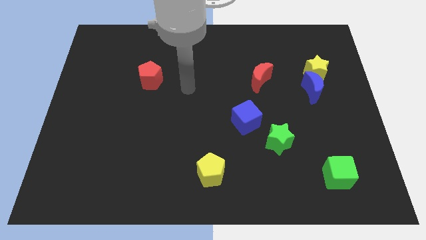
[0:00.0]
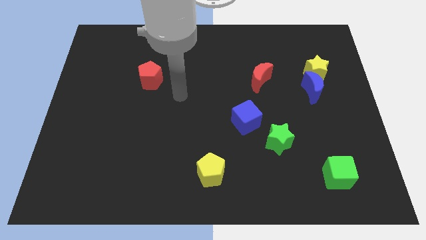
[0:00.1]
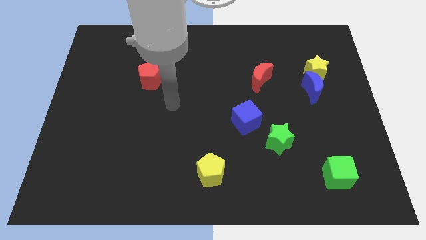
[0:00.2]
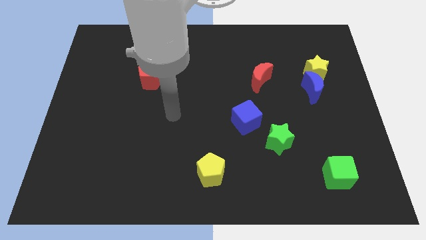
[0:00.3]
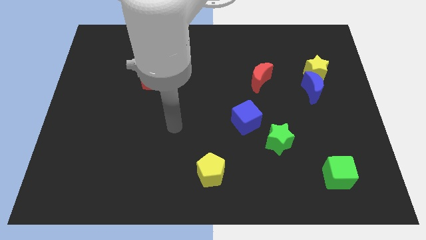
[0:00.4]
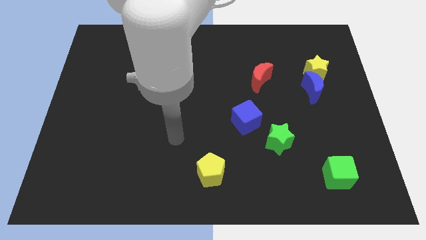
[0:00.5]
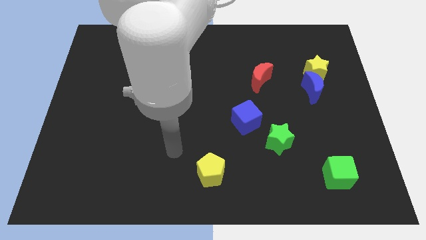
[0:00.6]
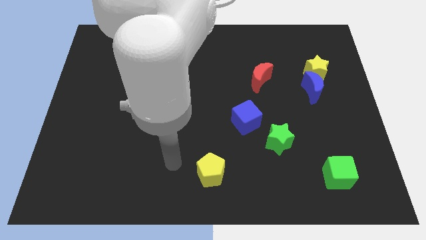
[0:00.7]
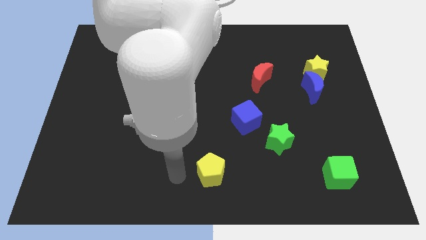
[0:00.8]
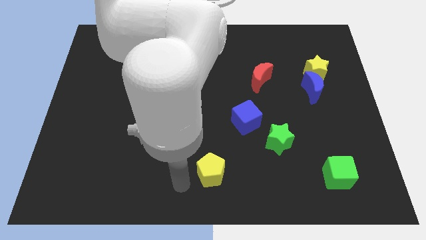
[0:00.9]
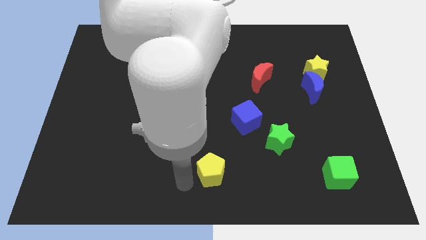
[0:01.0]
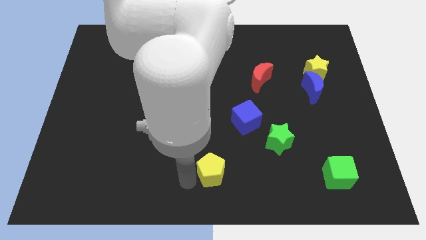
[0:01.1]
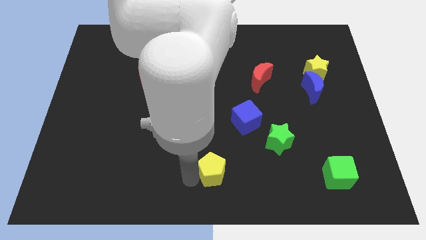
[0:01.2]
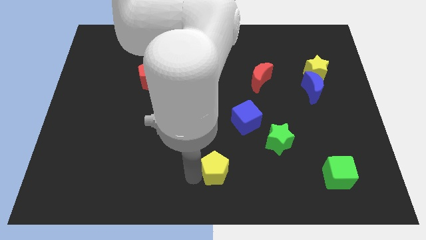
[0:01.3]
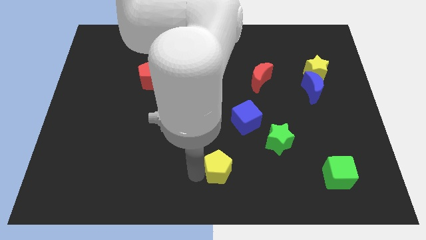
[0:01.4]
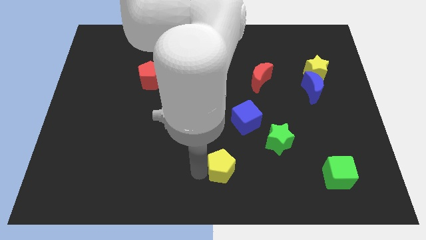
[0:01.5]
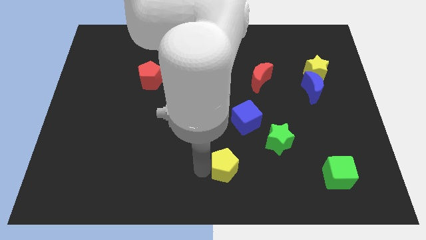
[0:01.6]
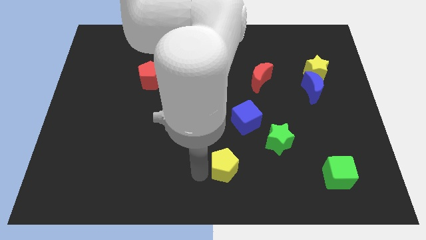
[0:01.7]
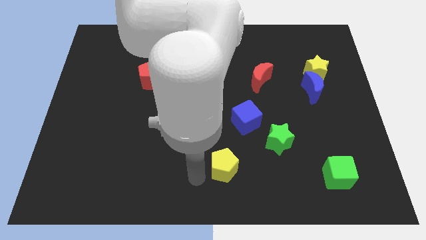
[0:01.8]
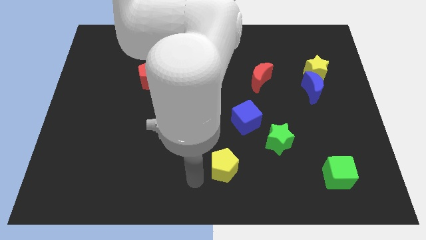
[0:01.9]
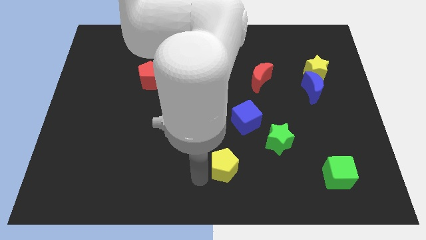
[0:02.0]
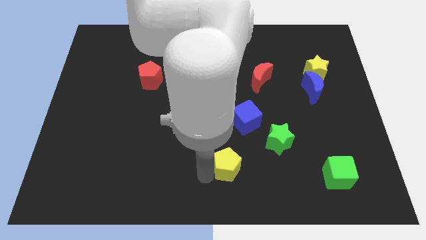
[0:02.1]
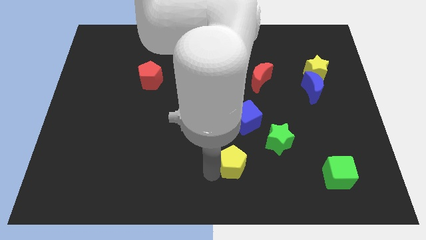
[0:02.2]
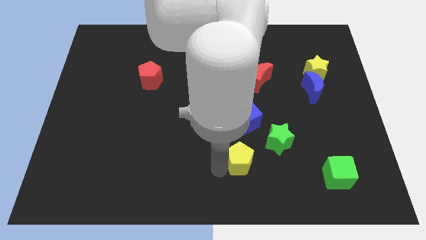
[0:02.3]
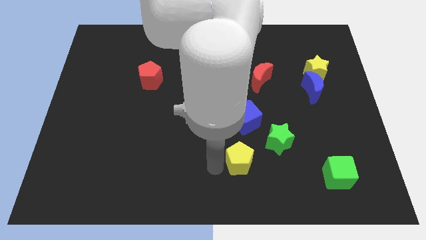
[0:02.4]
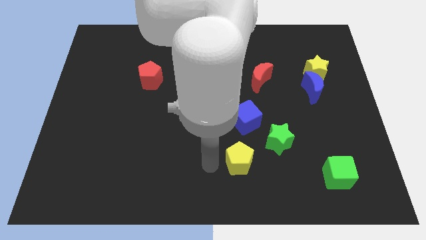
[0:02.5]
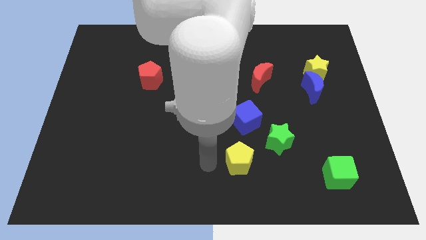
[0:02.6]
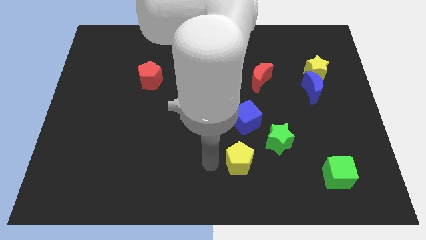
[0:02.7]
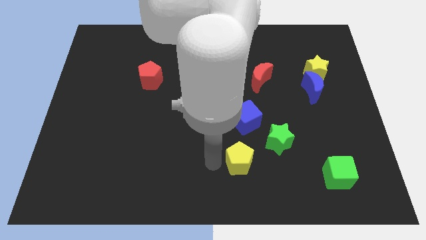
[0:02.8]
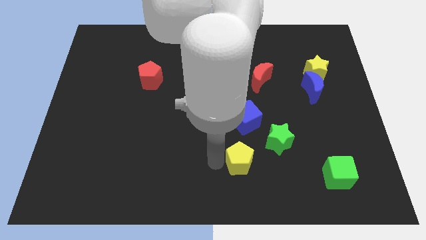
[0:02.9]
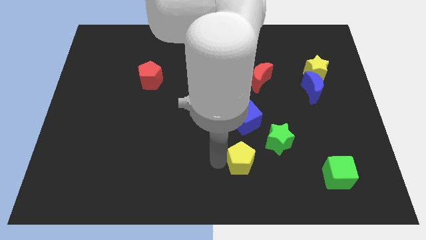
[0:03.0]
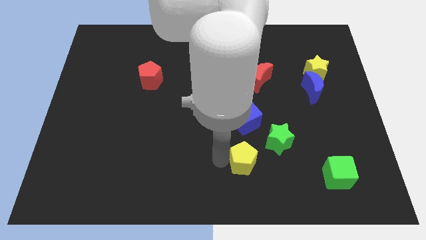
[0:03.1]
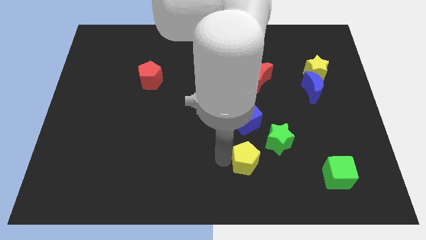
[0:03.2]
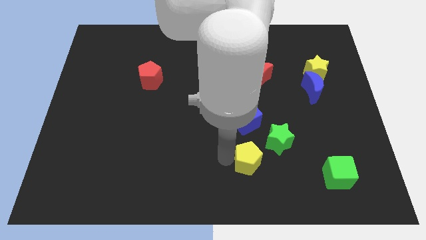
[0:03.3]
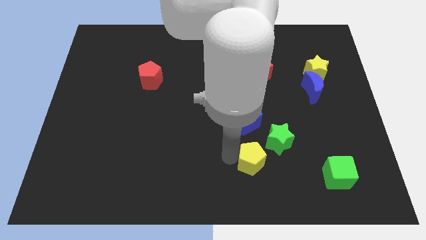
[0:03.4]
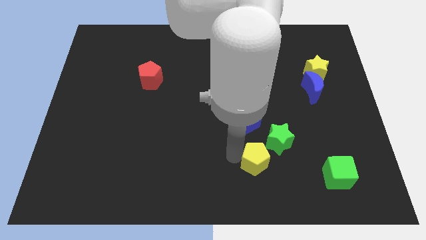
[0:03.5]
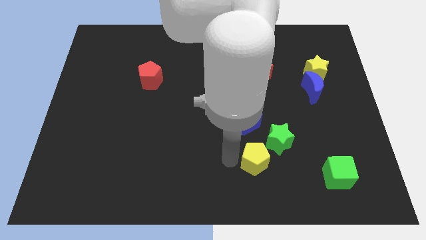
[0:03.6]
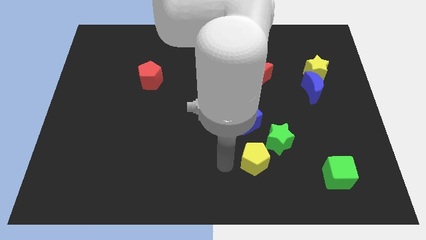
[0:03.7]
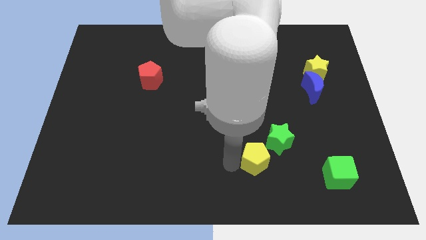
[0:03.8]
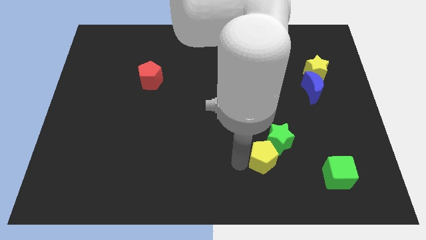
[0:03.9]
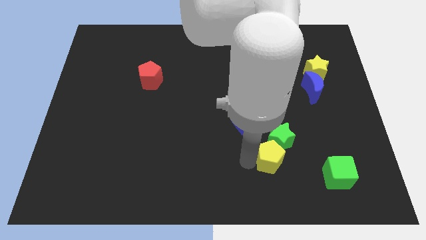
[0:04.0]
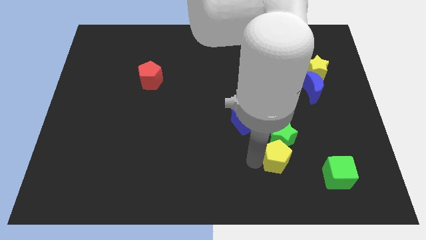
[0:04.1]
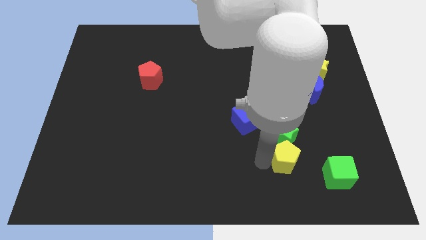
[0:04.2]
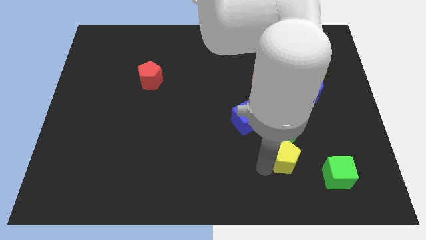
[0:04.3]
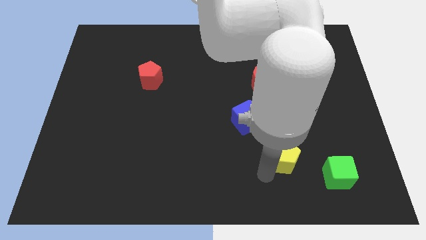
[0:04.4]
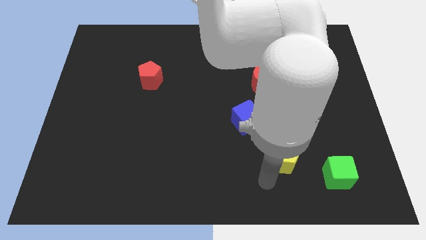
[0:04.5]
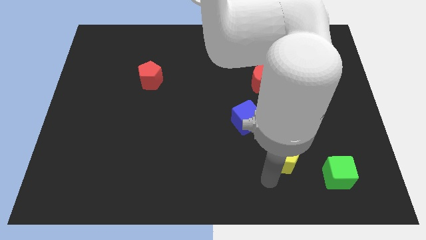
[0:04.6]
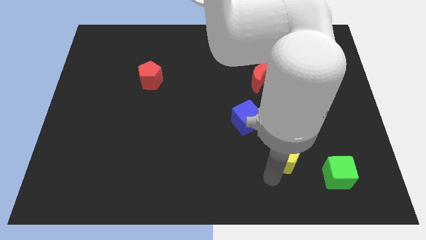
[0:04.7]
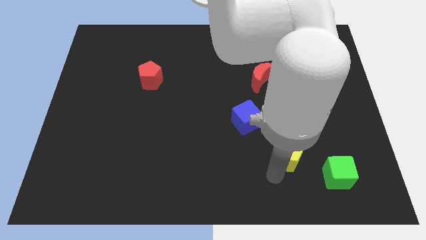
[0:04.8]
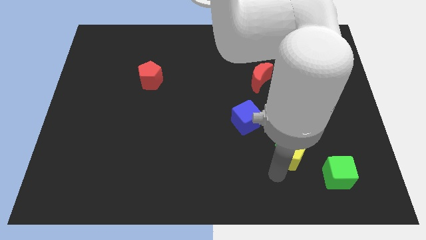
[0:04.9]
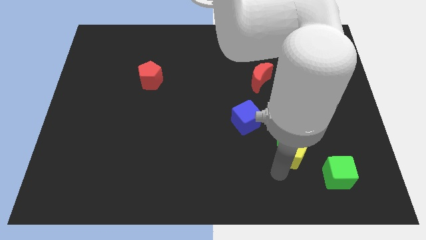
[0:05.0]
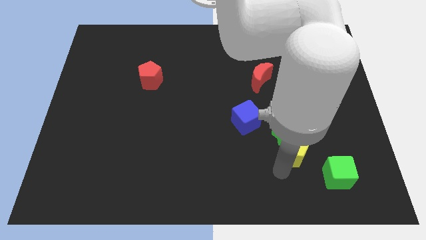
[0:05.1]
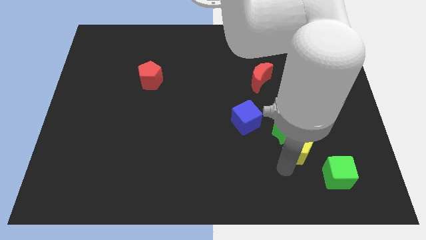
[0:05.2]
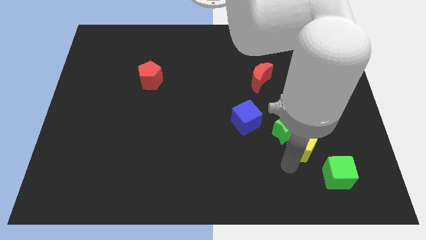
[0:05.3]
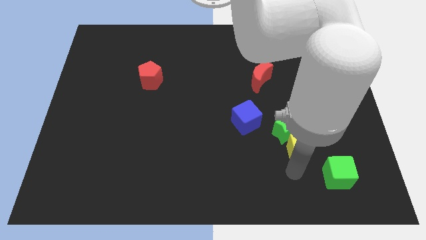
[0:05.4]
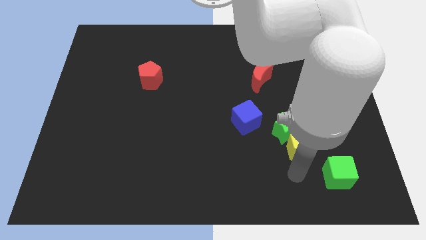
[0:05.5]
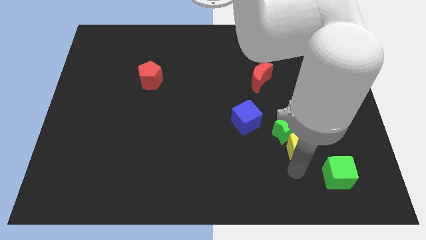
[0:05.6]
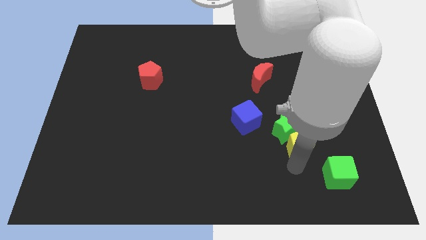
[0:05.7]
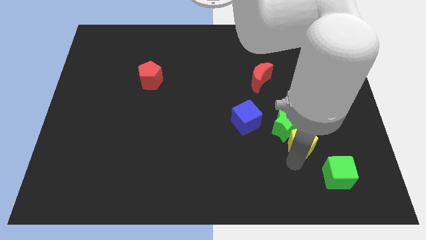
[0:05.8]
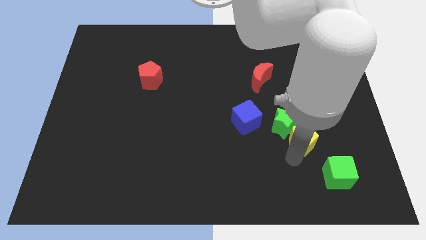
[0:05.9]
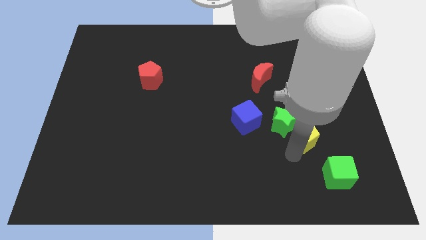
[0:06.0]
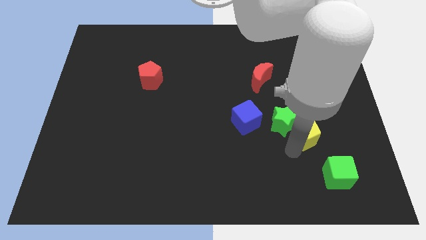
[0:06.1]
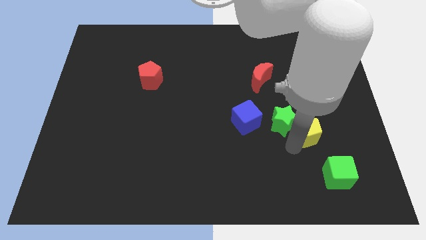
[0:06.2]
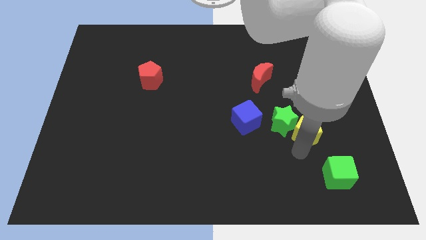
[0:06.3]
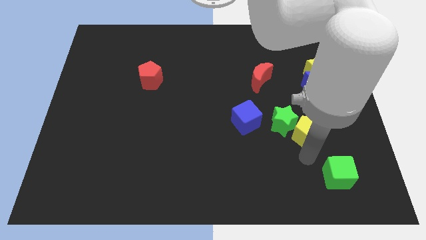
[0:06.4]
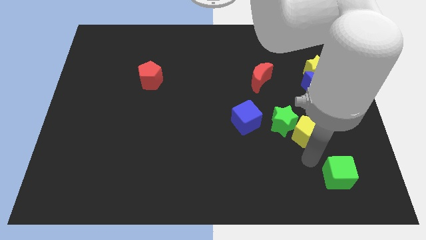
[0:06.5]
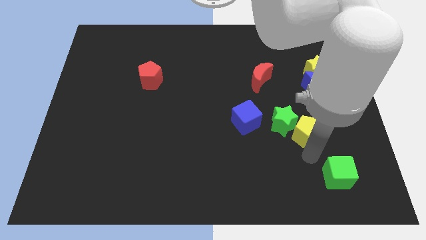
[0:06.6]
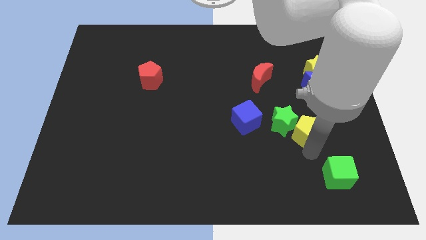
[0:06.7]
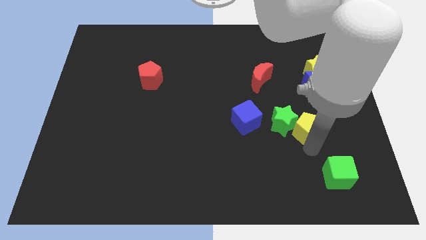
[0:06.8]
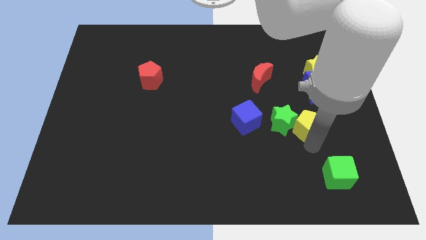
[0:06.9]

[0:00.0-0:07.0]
put the yellow pentagon diagonally up and to the right of the green star
